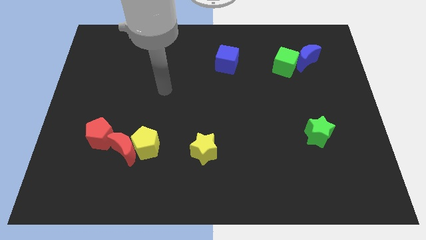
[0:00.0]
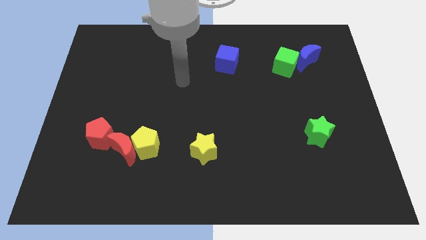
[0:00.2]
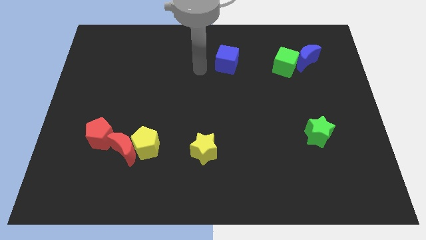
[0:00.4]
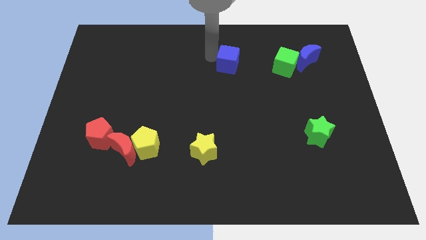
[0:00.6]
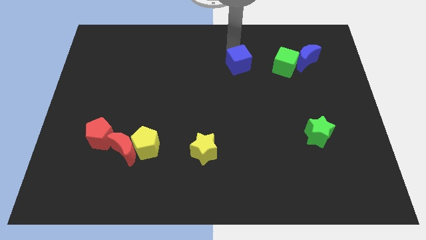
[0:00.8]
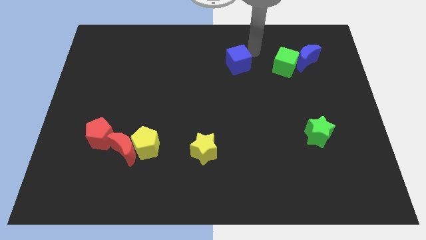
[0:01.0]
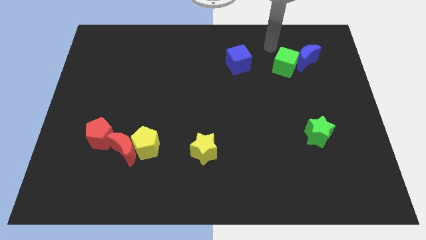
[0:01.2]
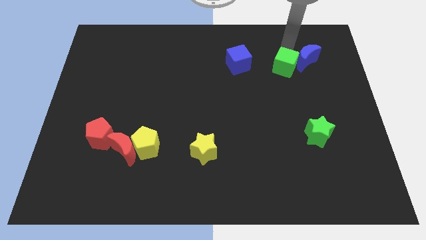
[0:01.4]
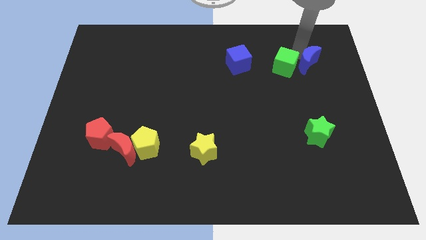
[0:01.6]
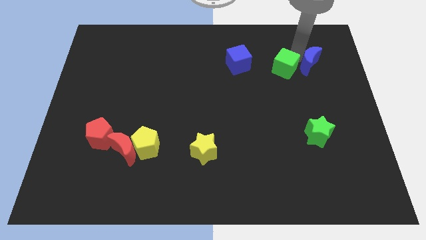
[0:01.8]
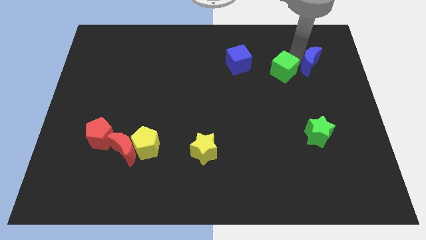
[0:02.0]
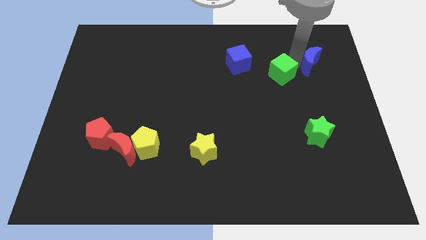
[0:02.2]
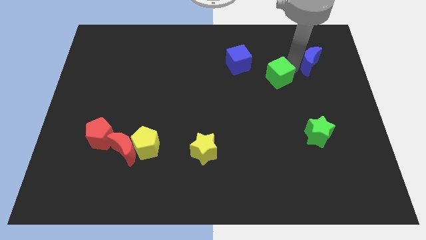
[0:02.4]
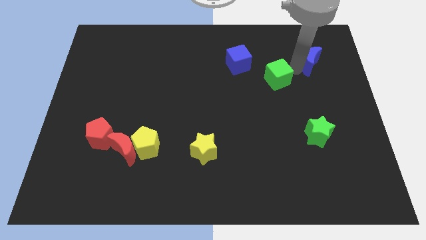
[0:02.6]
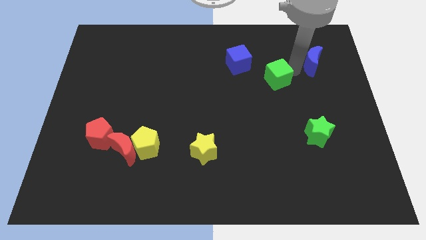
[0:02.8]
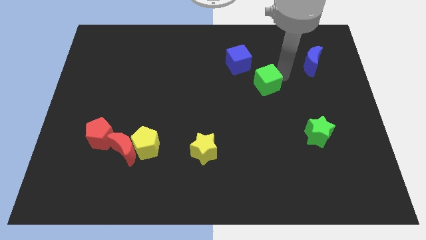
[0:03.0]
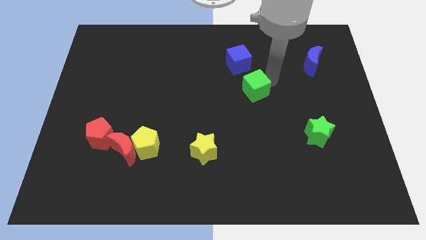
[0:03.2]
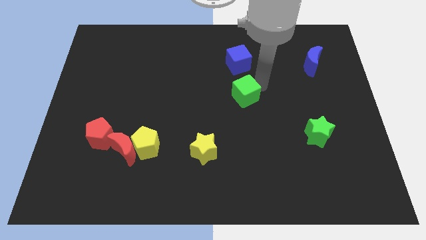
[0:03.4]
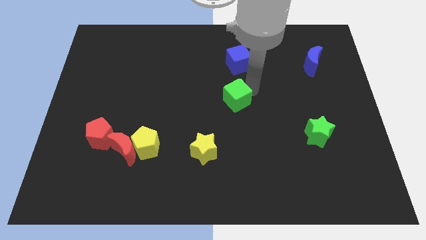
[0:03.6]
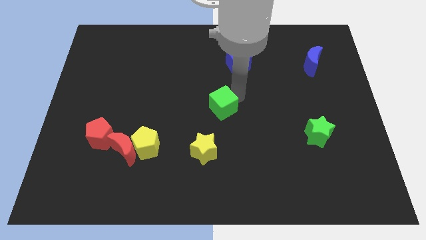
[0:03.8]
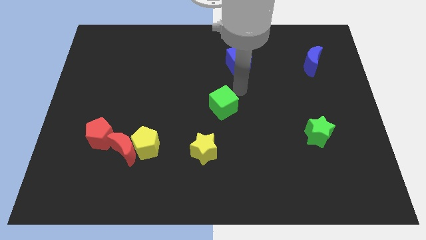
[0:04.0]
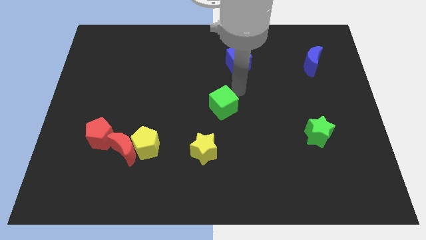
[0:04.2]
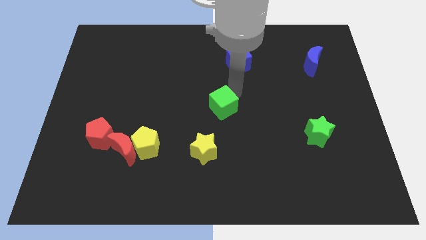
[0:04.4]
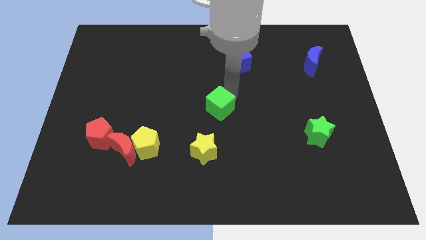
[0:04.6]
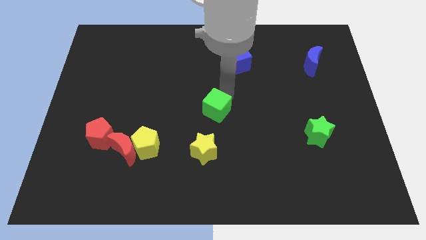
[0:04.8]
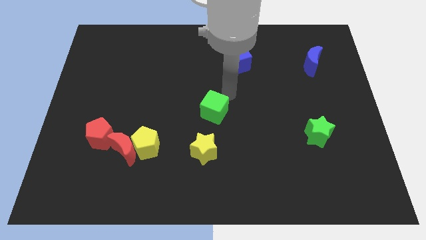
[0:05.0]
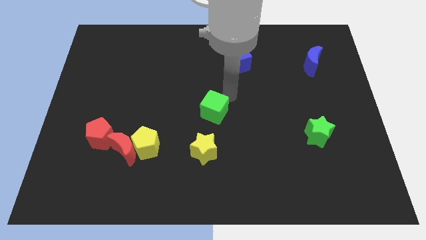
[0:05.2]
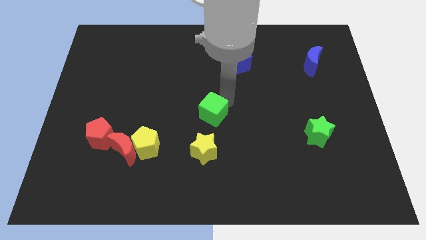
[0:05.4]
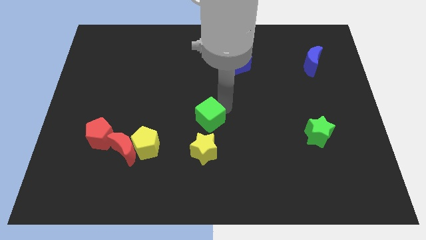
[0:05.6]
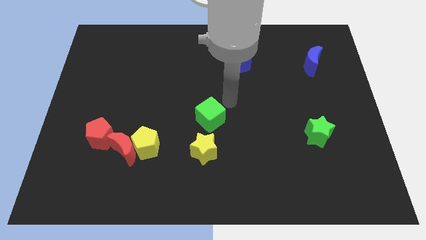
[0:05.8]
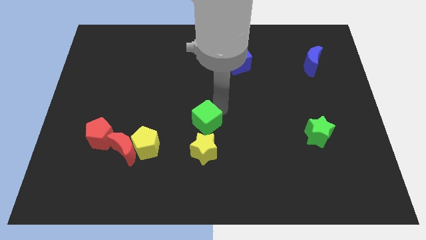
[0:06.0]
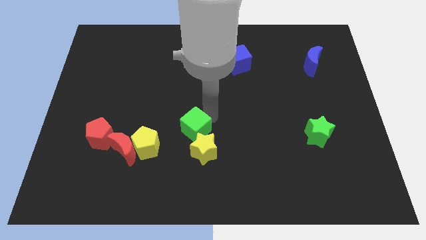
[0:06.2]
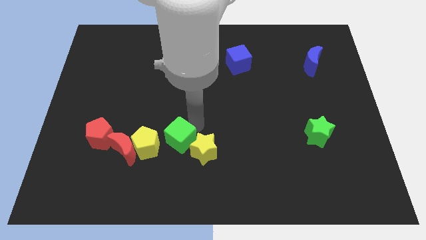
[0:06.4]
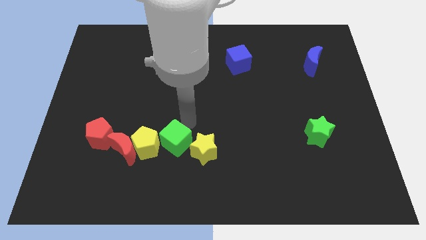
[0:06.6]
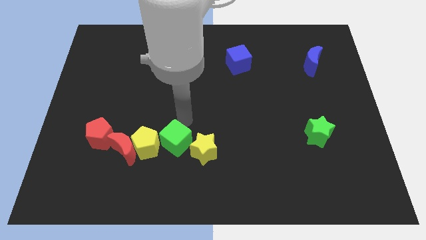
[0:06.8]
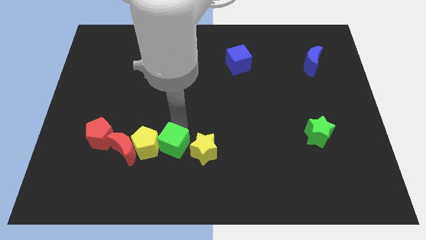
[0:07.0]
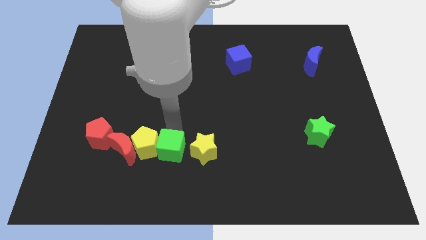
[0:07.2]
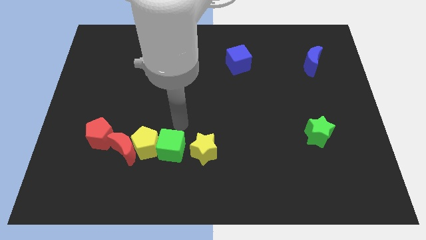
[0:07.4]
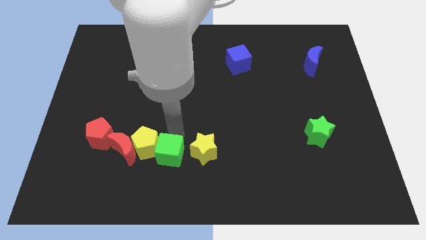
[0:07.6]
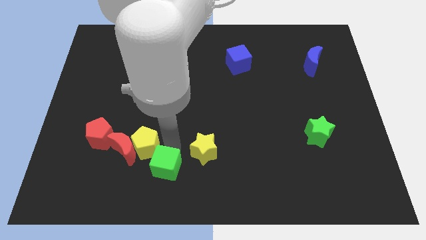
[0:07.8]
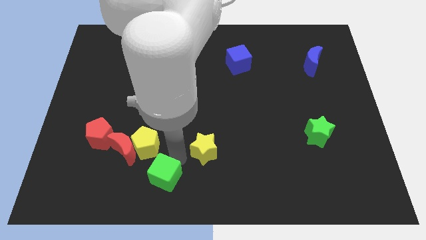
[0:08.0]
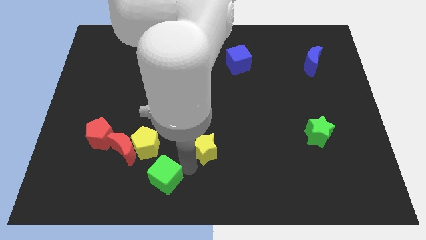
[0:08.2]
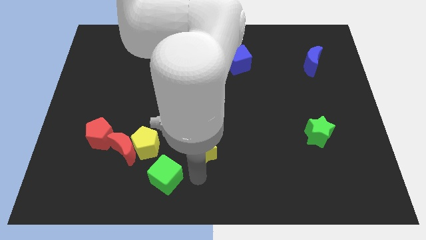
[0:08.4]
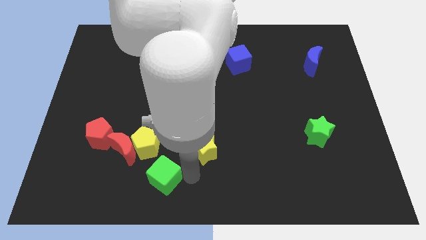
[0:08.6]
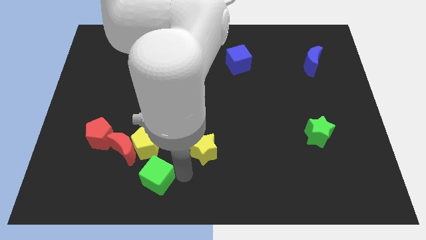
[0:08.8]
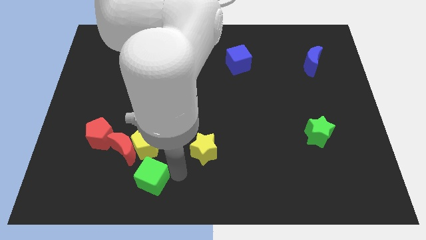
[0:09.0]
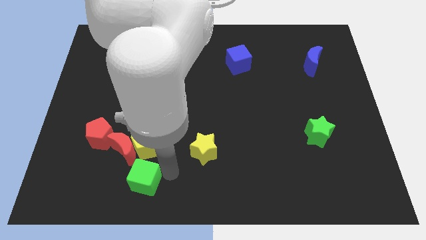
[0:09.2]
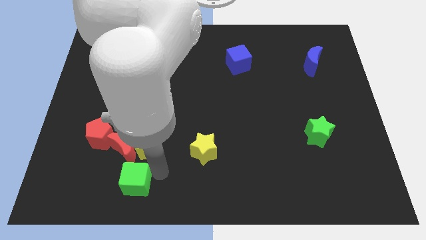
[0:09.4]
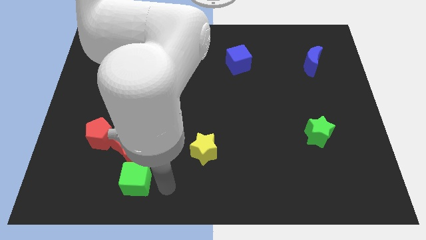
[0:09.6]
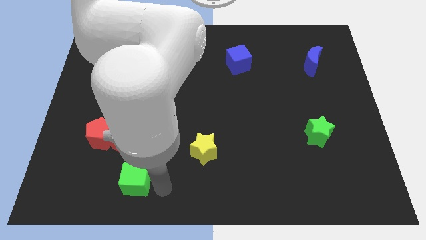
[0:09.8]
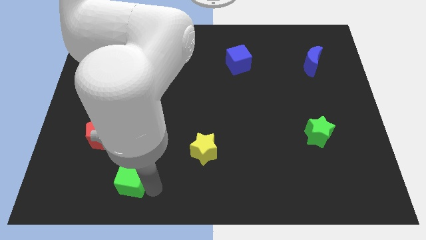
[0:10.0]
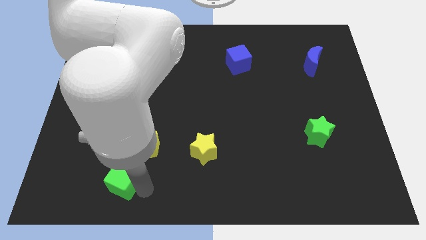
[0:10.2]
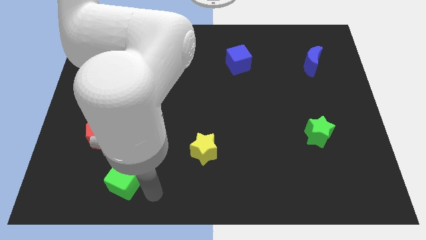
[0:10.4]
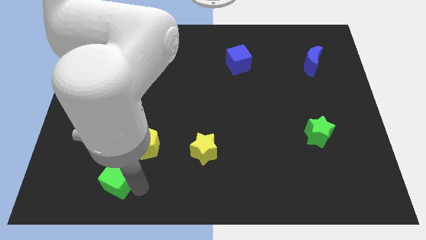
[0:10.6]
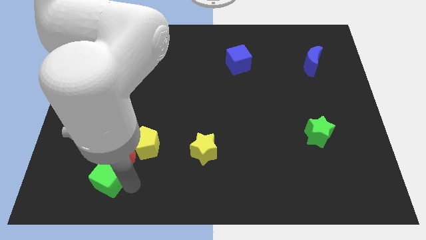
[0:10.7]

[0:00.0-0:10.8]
push the green cube to the bottom left of the red moon

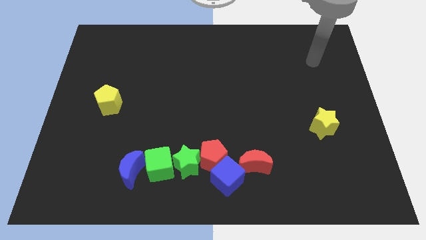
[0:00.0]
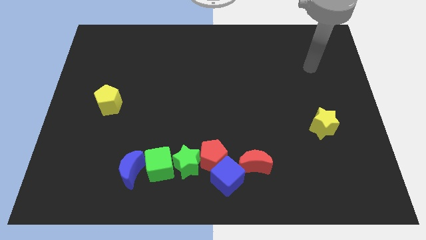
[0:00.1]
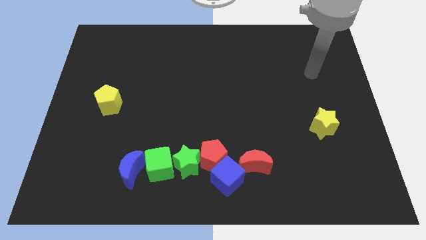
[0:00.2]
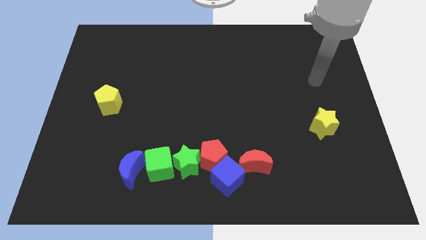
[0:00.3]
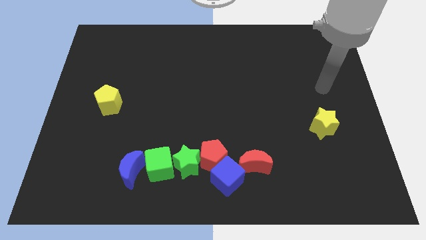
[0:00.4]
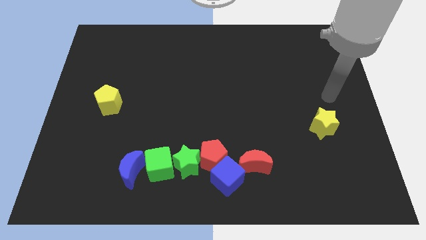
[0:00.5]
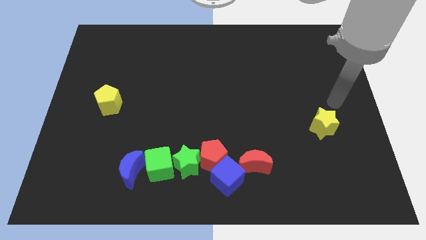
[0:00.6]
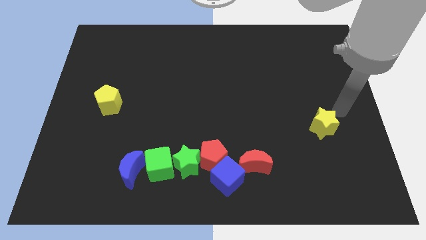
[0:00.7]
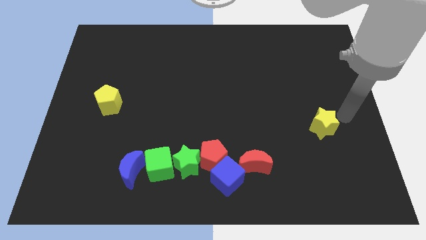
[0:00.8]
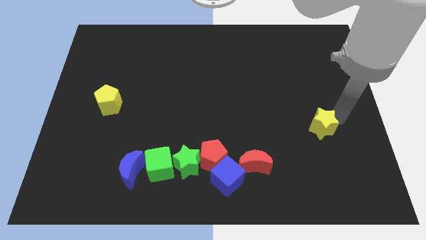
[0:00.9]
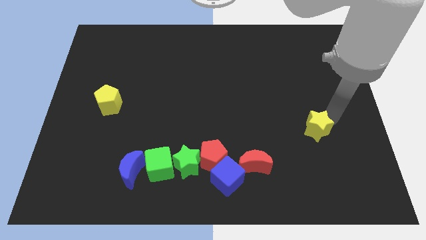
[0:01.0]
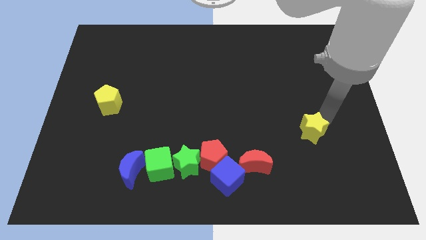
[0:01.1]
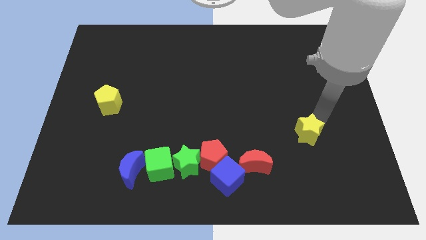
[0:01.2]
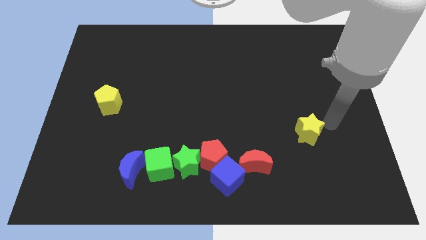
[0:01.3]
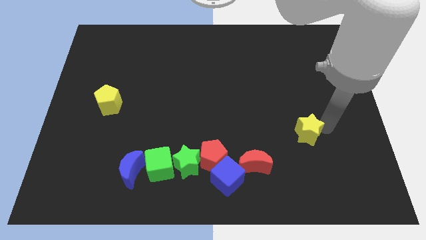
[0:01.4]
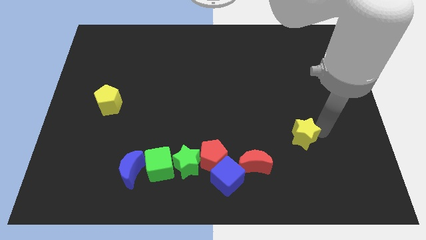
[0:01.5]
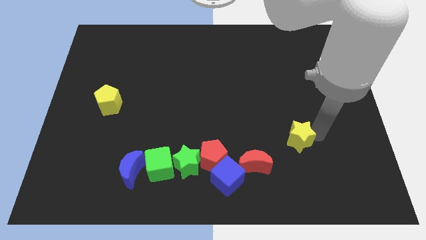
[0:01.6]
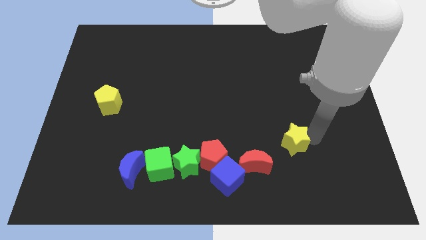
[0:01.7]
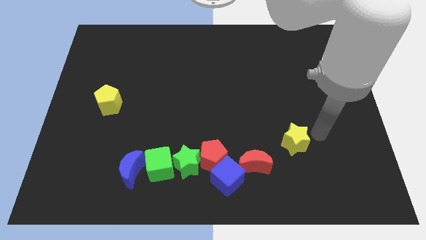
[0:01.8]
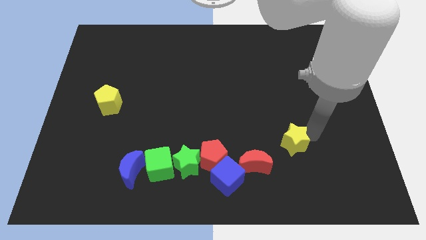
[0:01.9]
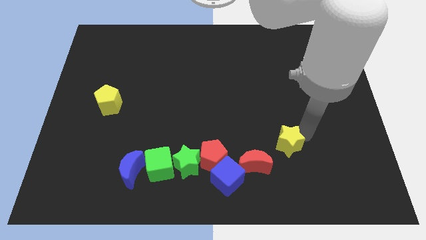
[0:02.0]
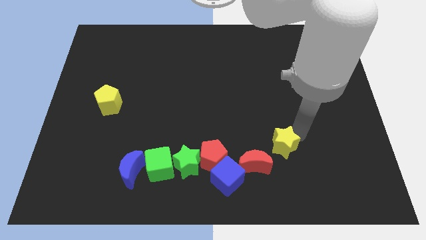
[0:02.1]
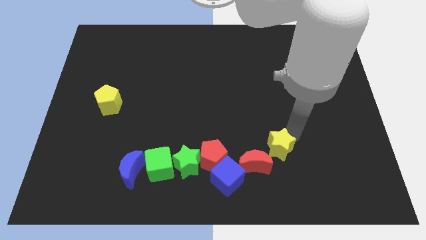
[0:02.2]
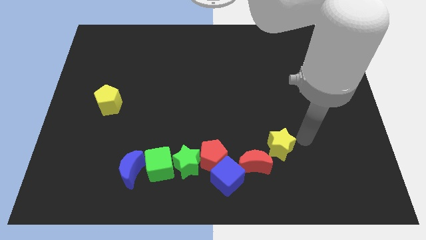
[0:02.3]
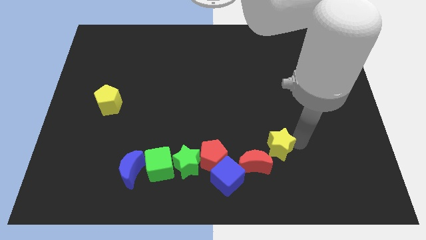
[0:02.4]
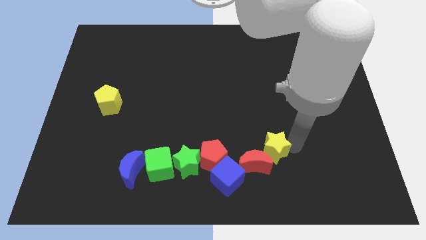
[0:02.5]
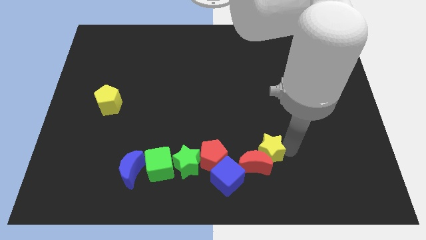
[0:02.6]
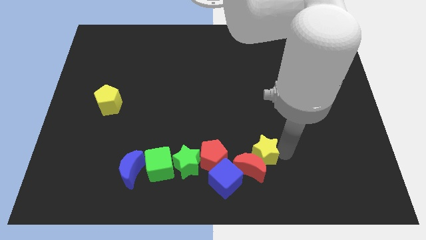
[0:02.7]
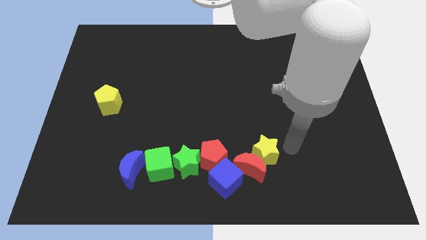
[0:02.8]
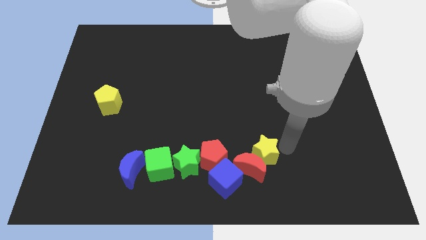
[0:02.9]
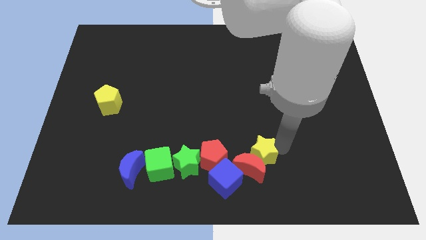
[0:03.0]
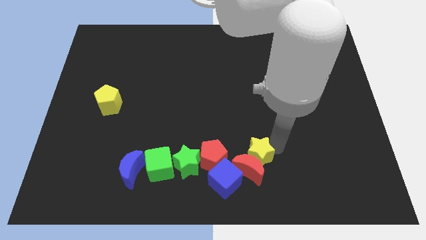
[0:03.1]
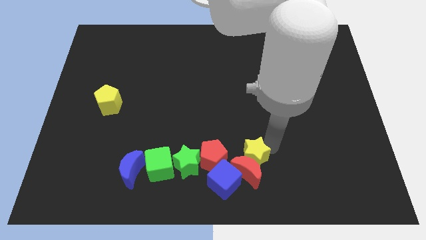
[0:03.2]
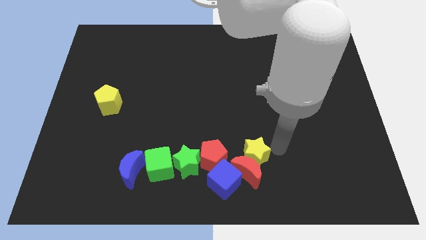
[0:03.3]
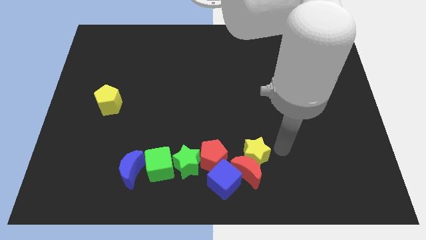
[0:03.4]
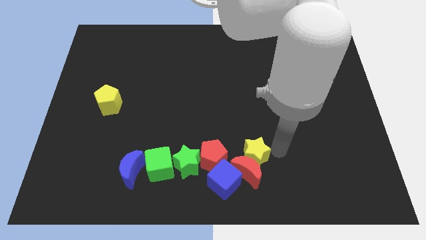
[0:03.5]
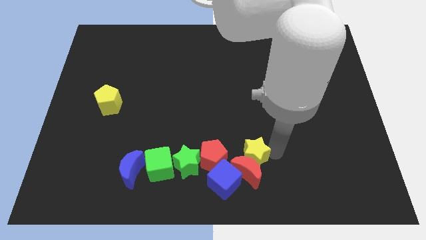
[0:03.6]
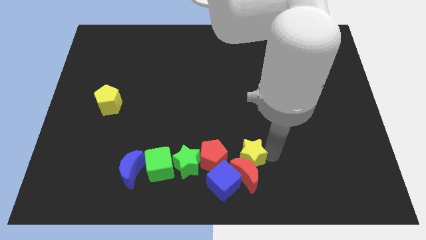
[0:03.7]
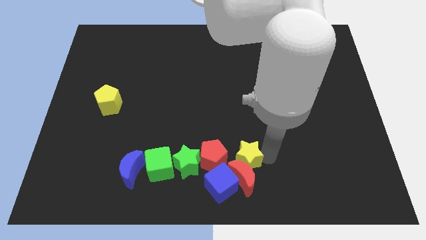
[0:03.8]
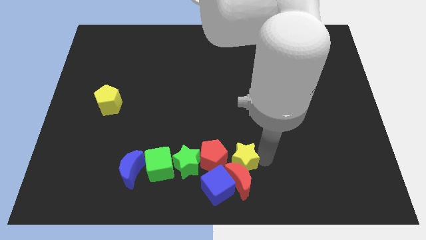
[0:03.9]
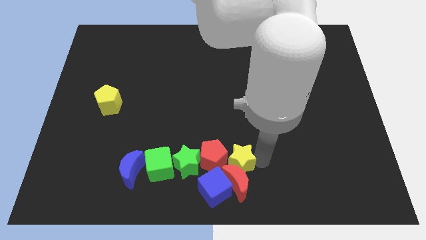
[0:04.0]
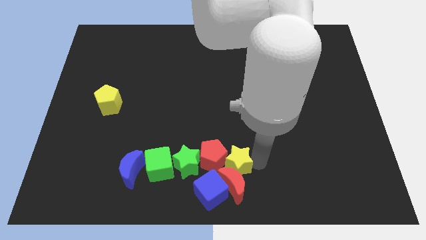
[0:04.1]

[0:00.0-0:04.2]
push the yellow star to the right of the green cube
